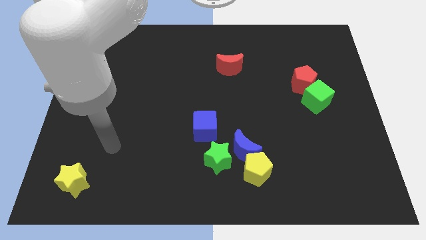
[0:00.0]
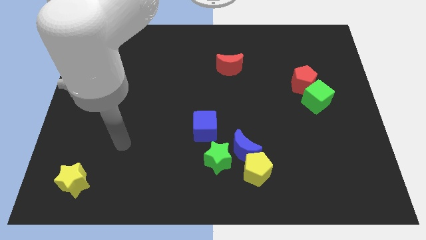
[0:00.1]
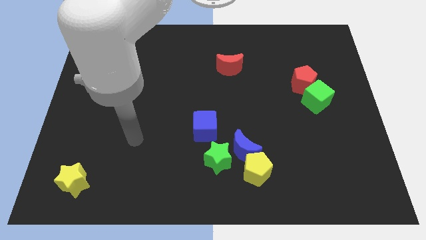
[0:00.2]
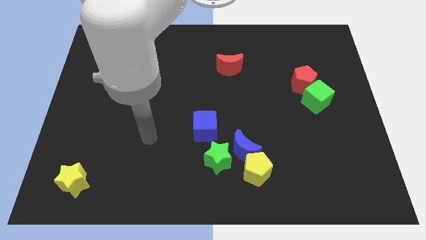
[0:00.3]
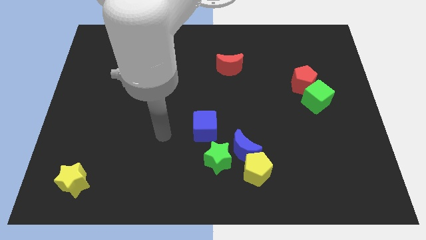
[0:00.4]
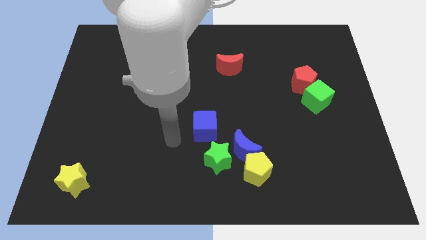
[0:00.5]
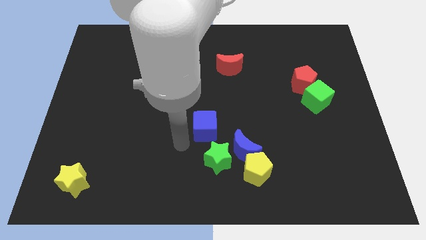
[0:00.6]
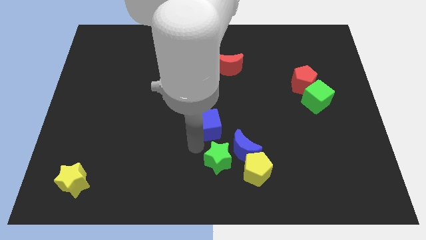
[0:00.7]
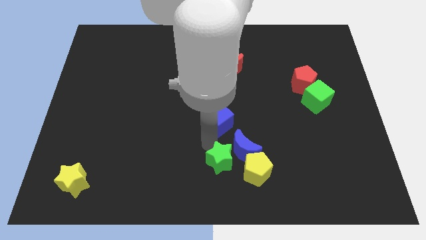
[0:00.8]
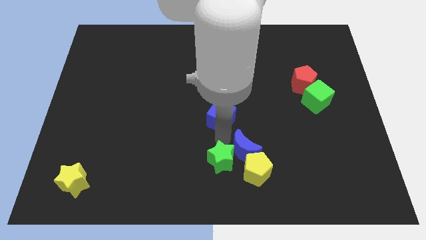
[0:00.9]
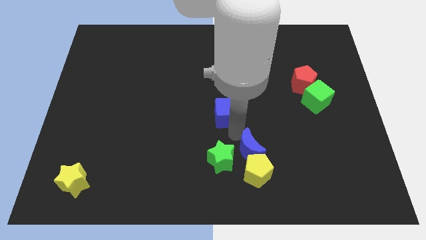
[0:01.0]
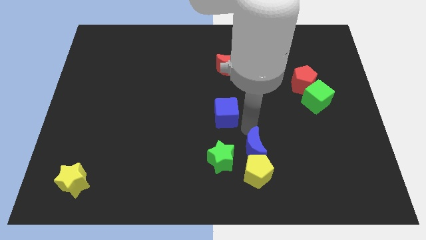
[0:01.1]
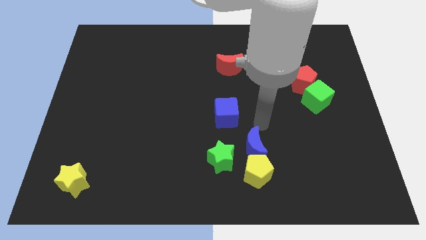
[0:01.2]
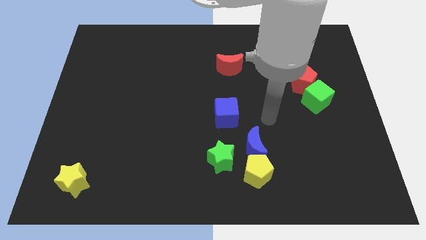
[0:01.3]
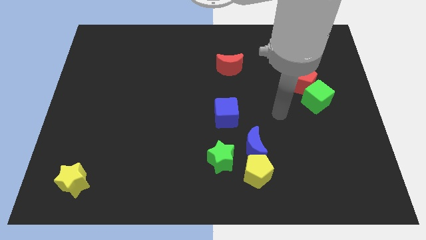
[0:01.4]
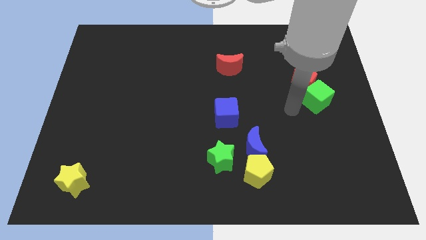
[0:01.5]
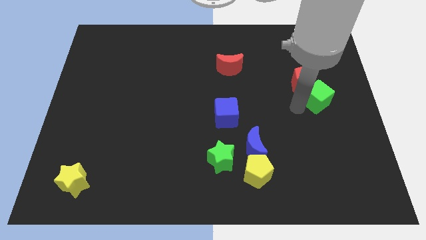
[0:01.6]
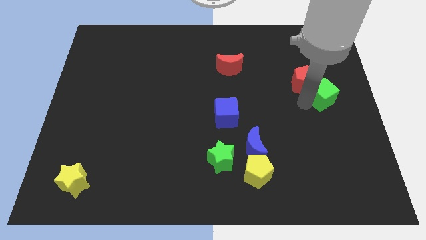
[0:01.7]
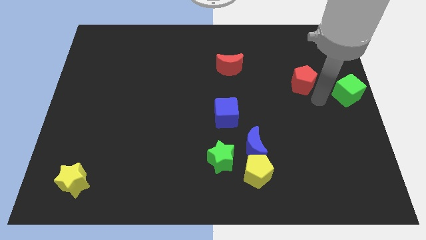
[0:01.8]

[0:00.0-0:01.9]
separate the red pentagon from the green cube

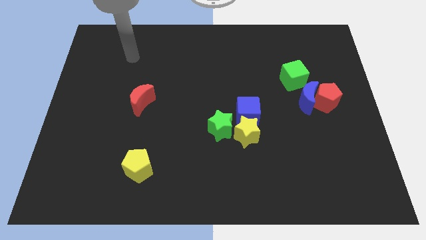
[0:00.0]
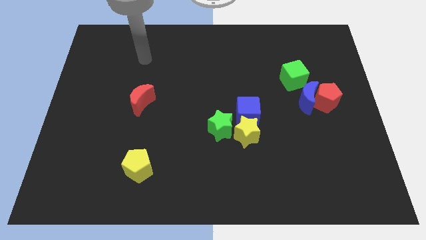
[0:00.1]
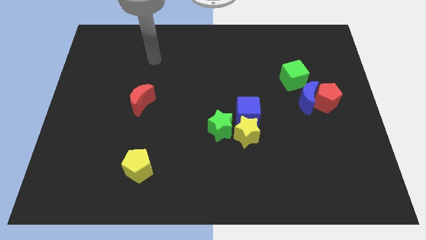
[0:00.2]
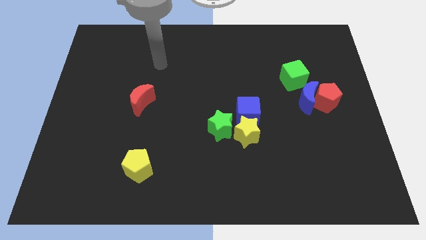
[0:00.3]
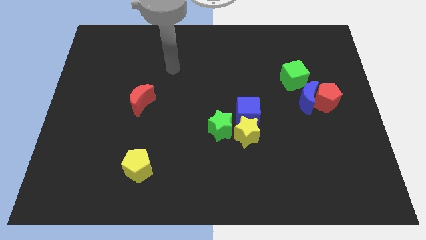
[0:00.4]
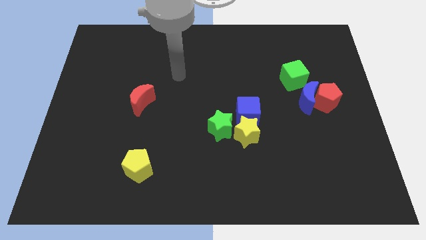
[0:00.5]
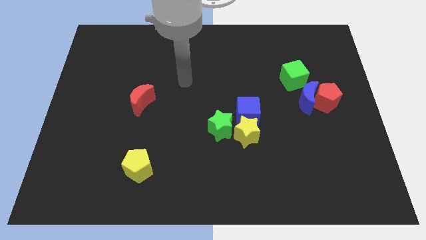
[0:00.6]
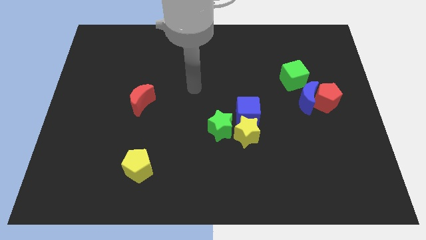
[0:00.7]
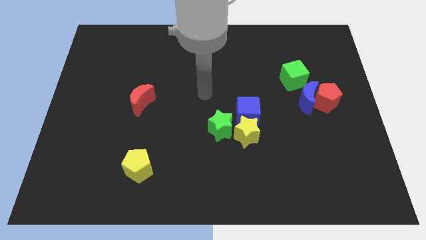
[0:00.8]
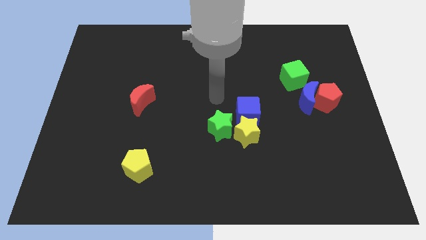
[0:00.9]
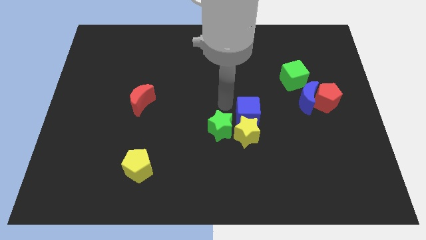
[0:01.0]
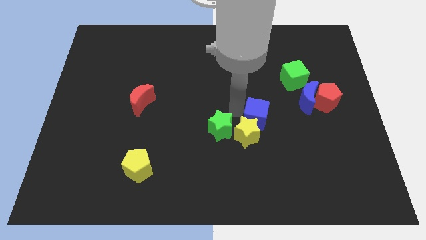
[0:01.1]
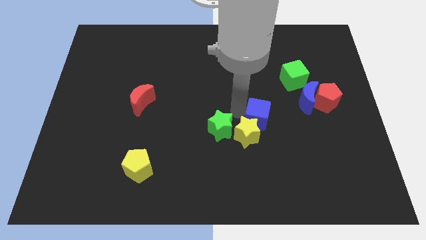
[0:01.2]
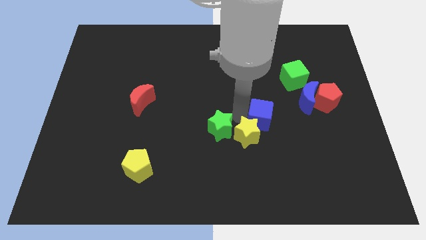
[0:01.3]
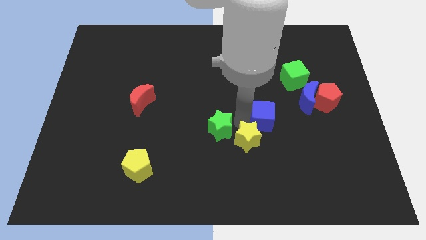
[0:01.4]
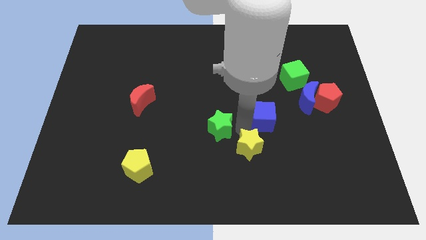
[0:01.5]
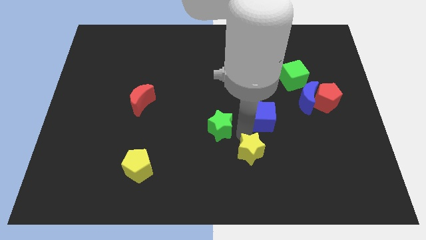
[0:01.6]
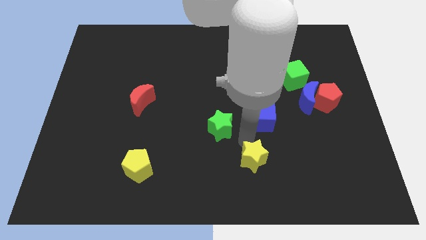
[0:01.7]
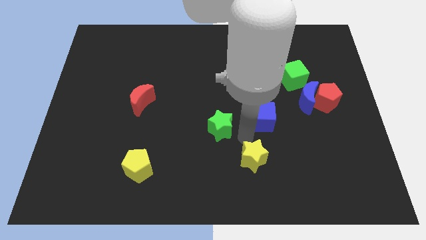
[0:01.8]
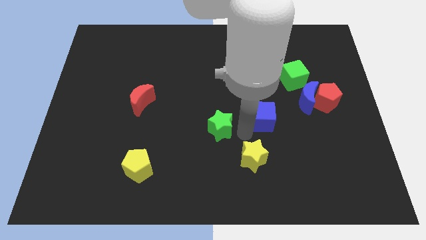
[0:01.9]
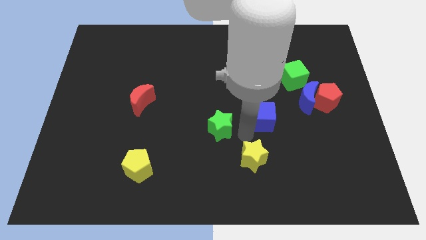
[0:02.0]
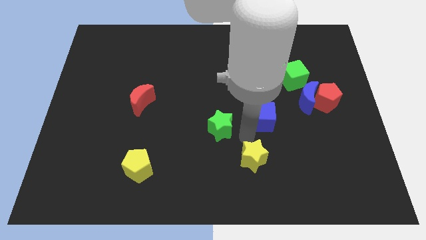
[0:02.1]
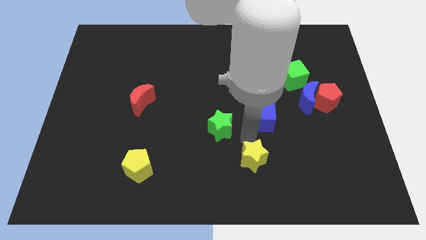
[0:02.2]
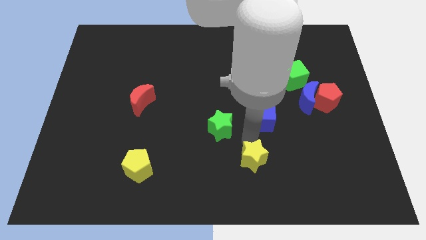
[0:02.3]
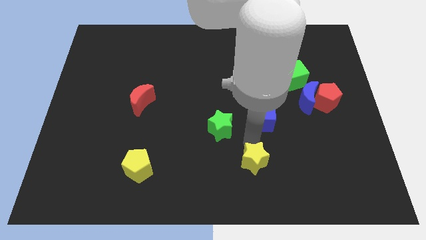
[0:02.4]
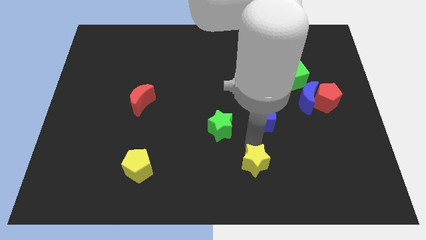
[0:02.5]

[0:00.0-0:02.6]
separate the yellow star from the green star and blue cube

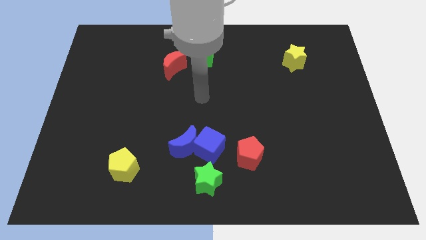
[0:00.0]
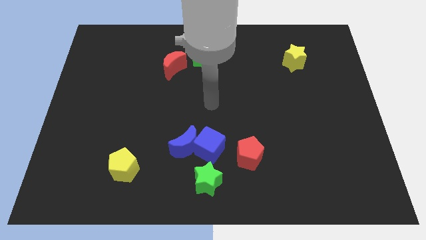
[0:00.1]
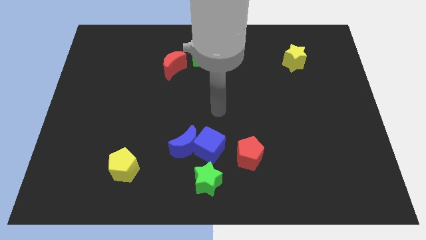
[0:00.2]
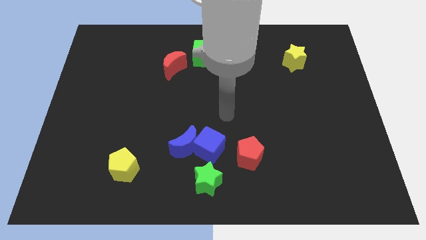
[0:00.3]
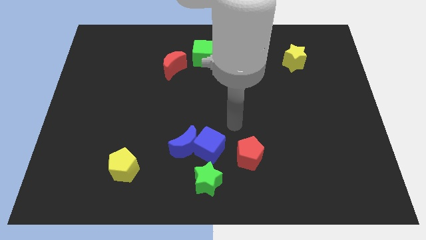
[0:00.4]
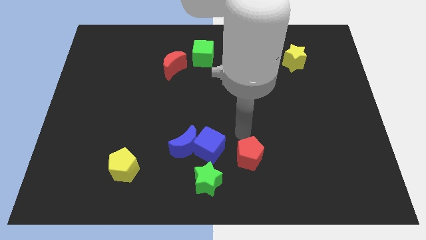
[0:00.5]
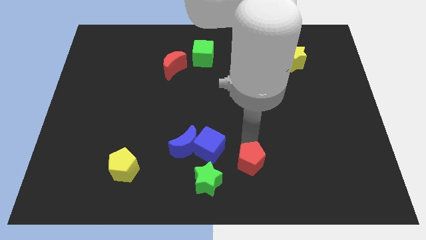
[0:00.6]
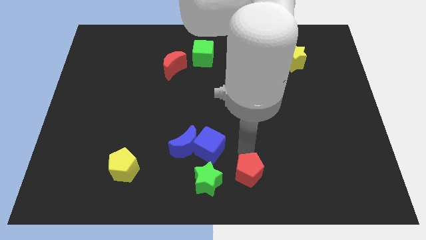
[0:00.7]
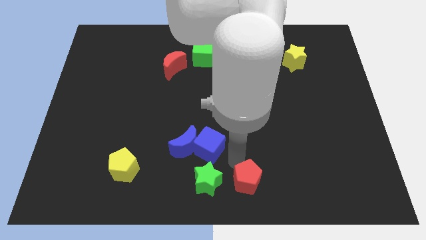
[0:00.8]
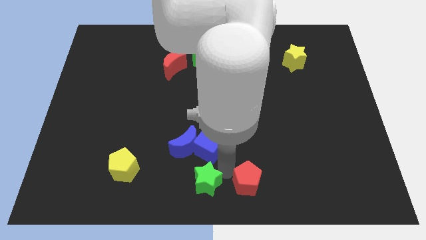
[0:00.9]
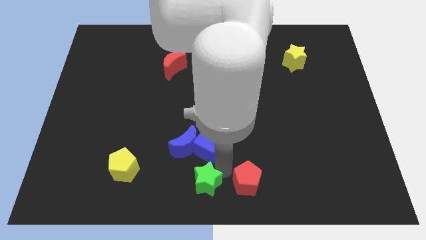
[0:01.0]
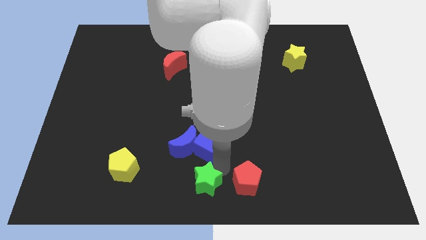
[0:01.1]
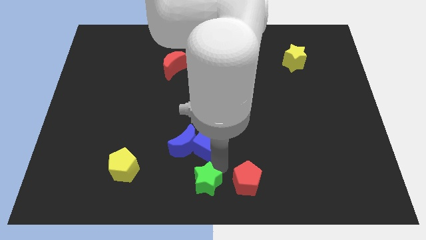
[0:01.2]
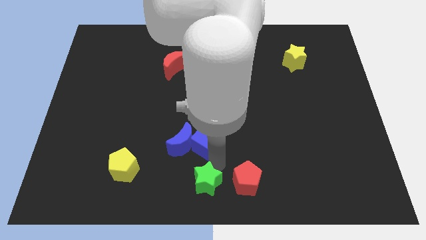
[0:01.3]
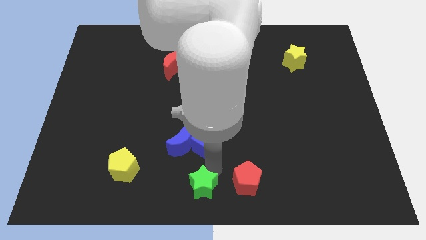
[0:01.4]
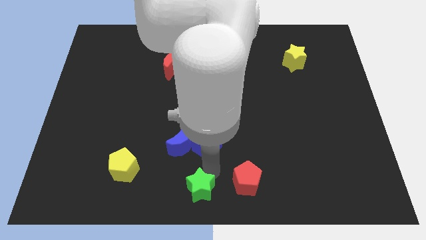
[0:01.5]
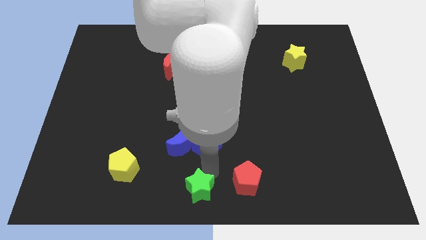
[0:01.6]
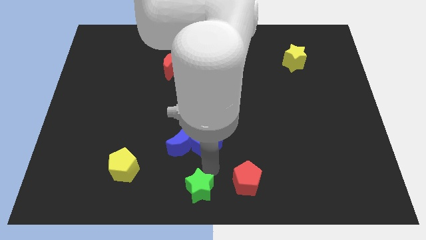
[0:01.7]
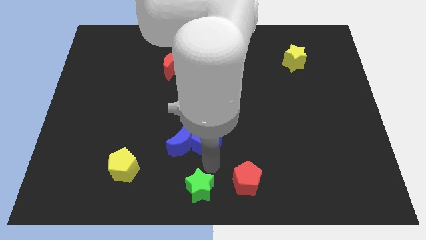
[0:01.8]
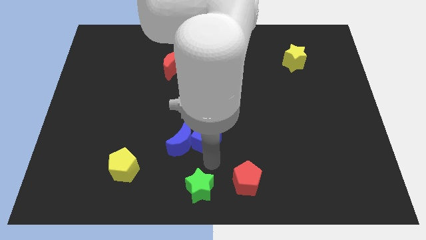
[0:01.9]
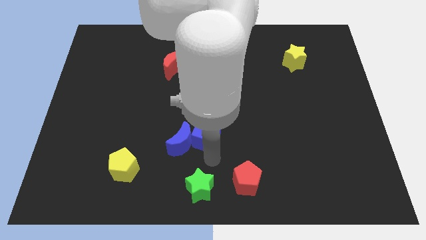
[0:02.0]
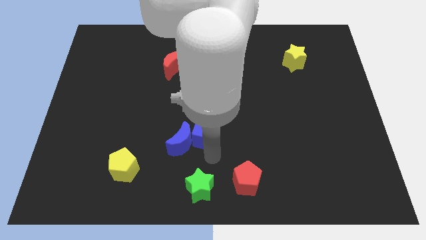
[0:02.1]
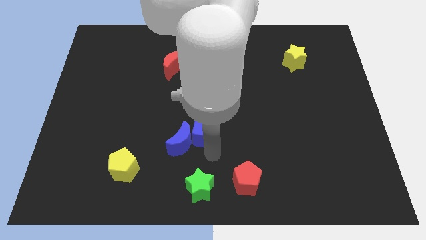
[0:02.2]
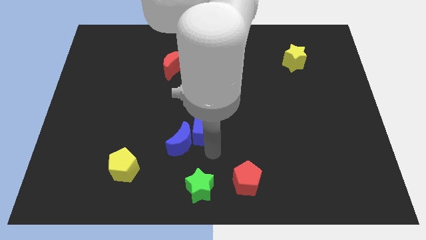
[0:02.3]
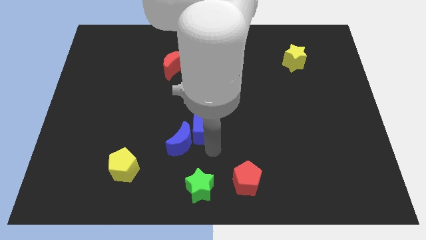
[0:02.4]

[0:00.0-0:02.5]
separate the blue cube from the group

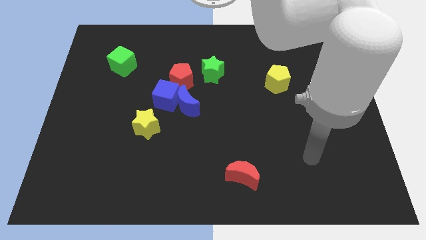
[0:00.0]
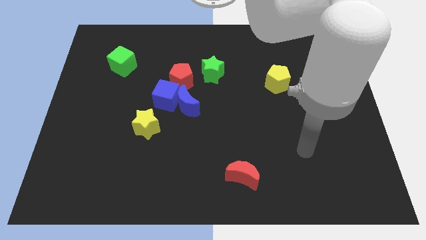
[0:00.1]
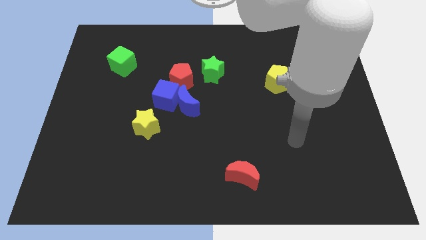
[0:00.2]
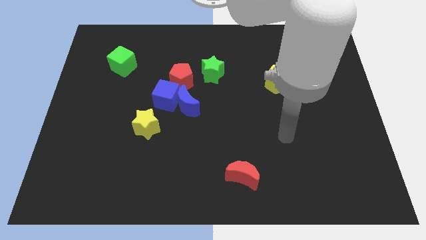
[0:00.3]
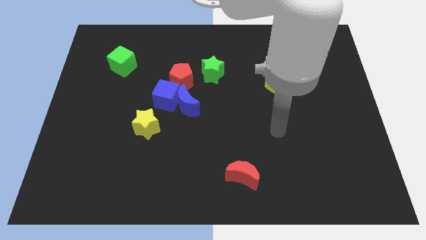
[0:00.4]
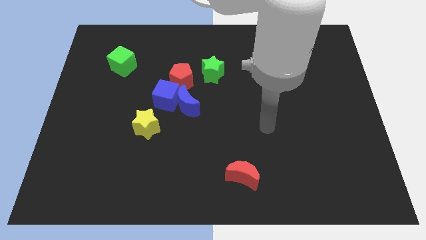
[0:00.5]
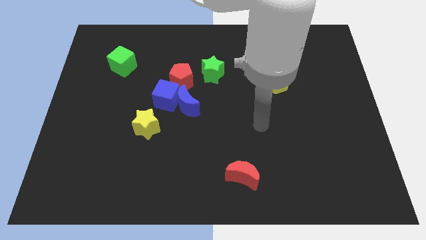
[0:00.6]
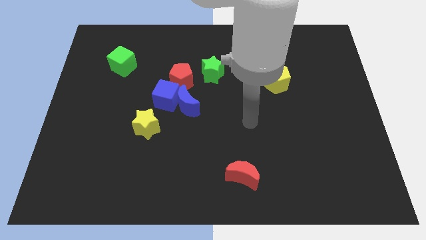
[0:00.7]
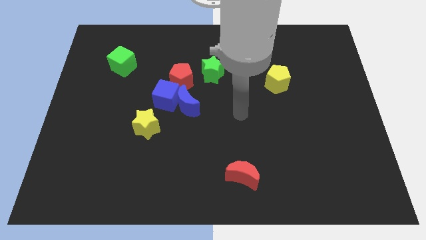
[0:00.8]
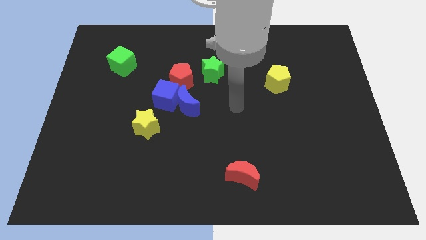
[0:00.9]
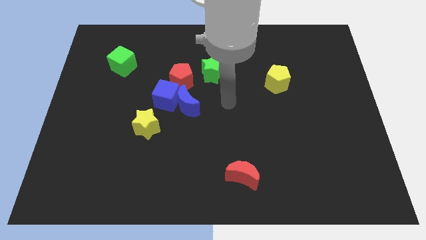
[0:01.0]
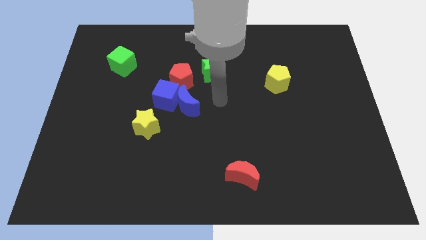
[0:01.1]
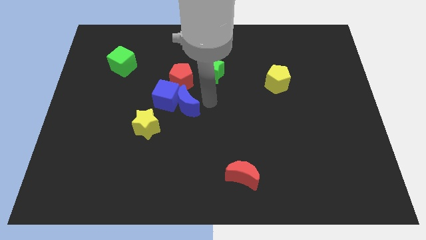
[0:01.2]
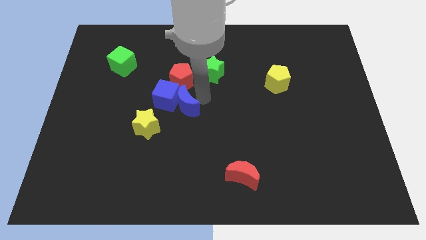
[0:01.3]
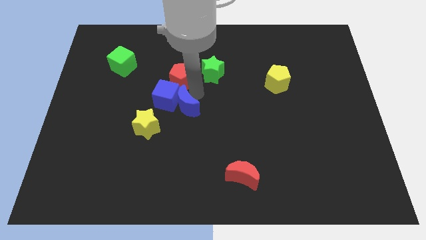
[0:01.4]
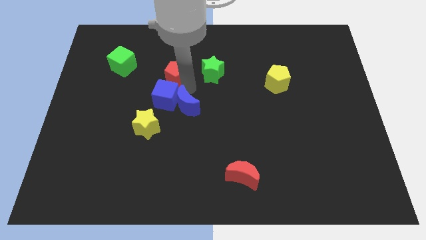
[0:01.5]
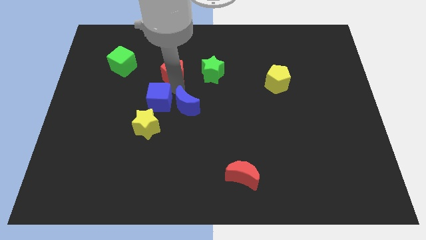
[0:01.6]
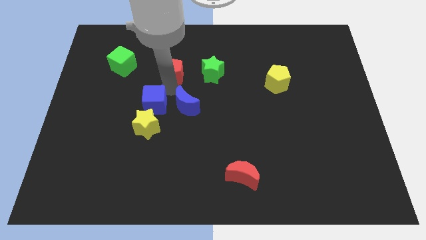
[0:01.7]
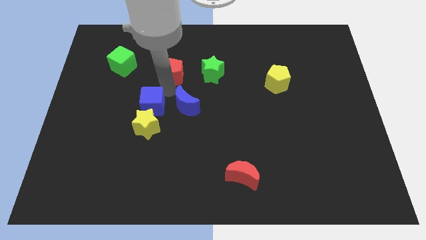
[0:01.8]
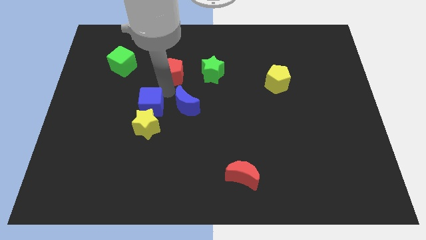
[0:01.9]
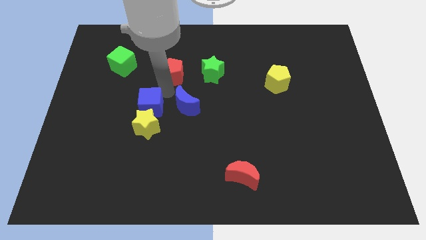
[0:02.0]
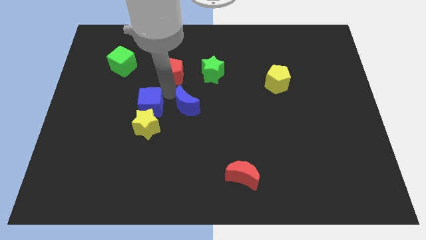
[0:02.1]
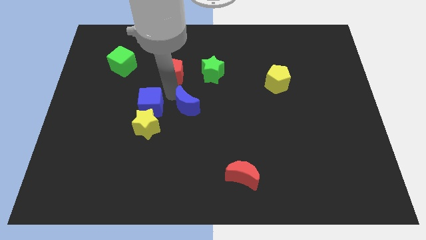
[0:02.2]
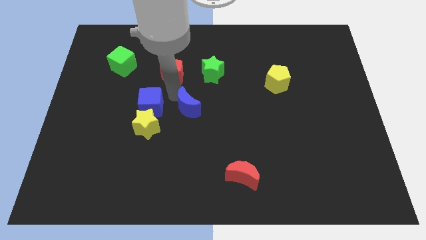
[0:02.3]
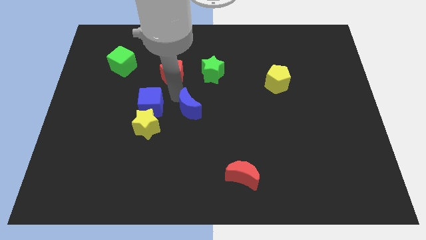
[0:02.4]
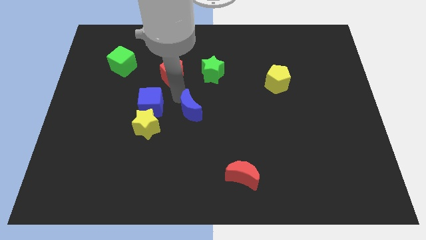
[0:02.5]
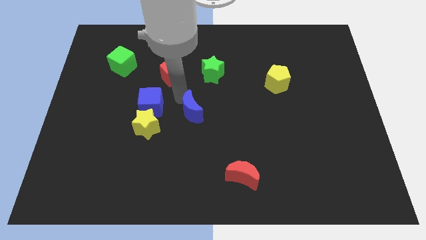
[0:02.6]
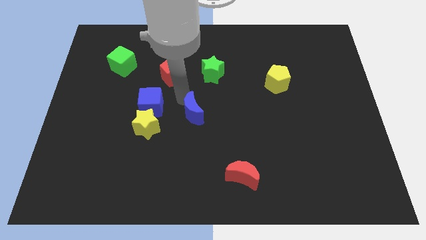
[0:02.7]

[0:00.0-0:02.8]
separate the blue moon from the blue cube and red pentagon
